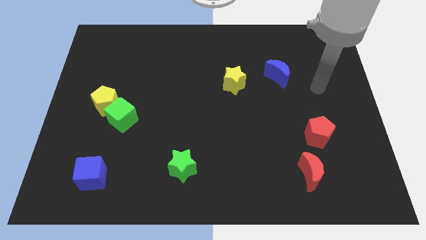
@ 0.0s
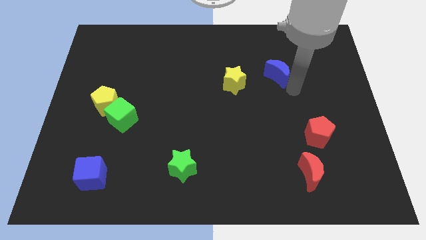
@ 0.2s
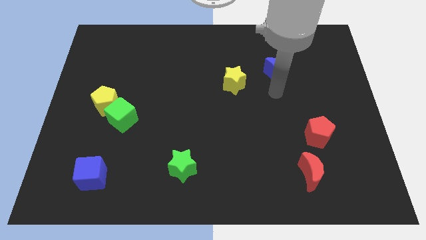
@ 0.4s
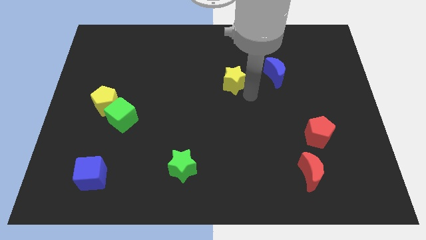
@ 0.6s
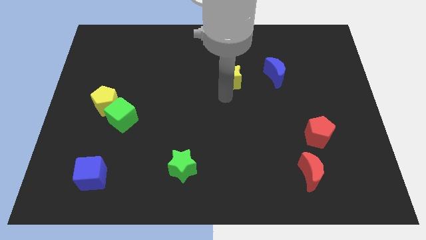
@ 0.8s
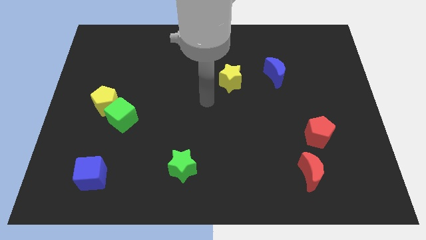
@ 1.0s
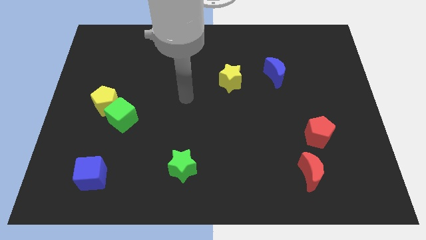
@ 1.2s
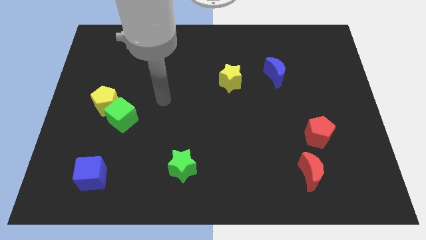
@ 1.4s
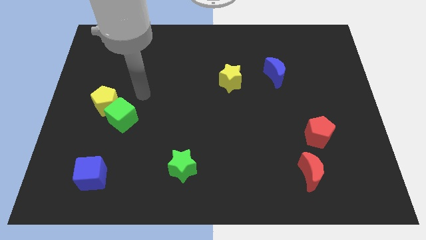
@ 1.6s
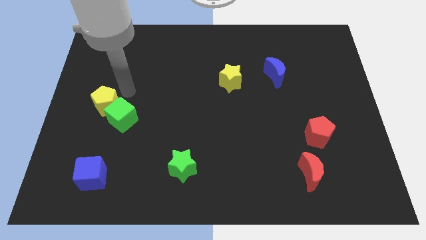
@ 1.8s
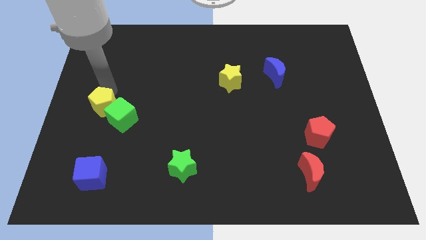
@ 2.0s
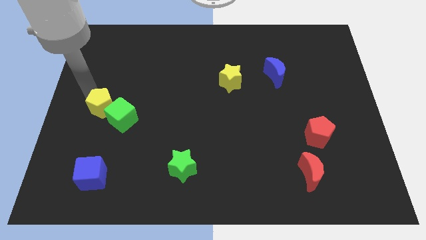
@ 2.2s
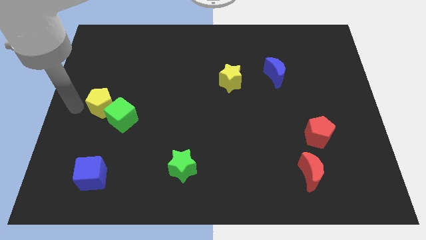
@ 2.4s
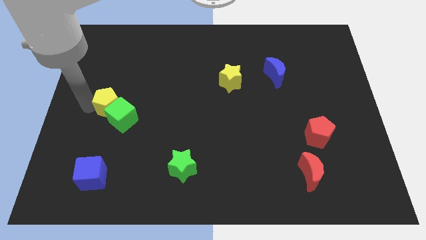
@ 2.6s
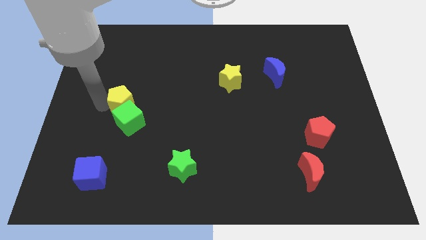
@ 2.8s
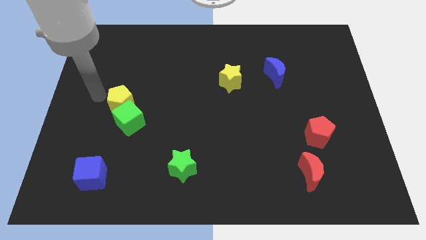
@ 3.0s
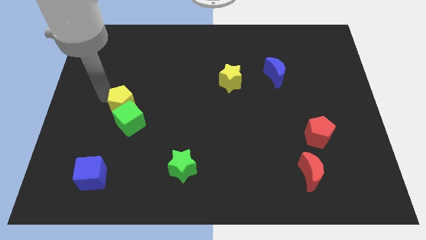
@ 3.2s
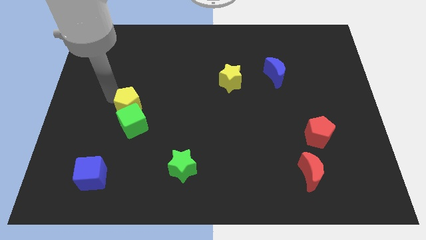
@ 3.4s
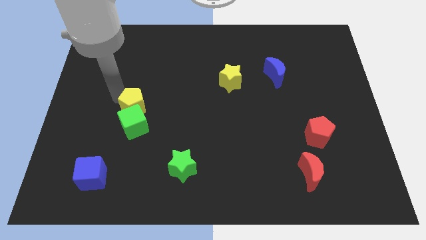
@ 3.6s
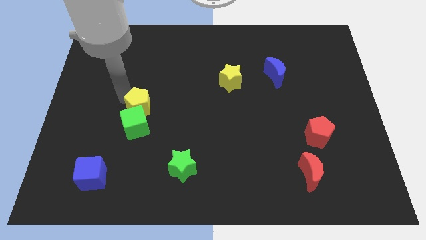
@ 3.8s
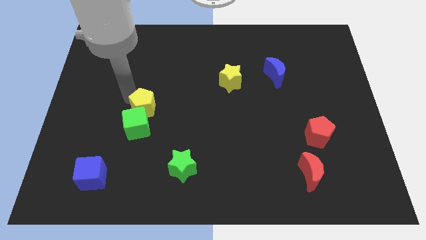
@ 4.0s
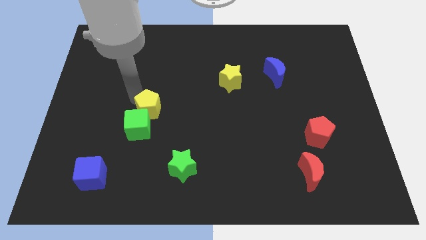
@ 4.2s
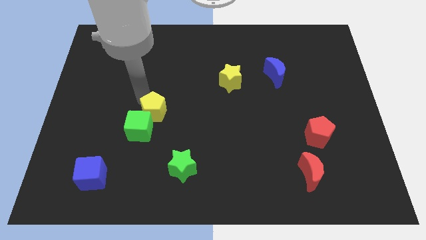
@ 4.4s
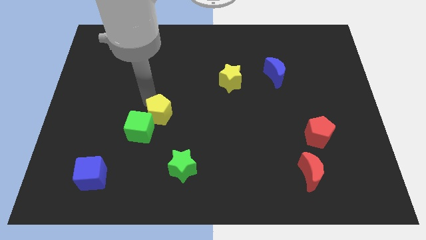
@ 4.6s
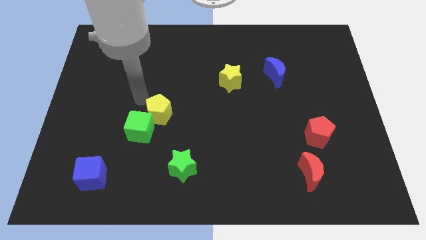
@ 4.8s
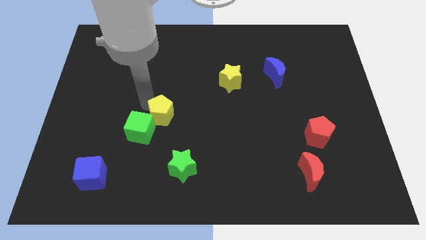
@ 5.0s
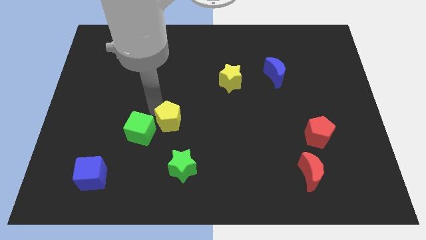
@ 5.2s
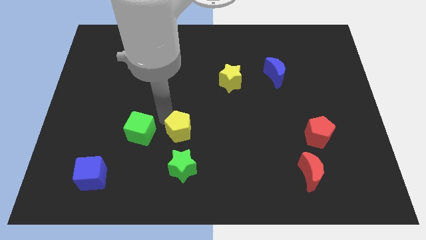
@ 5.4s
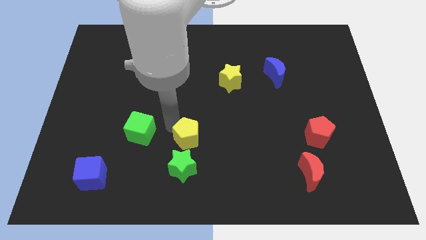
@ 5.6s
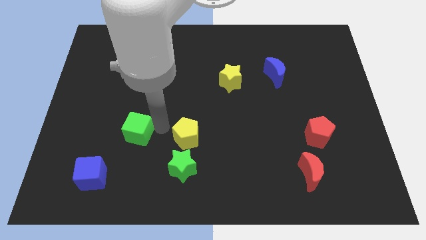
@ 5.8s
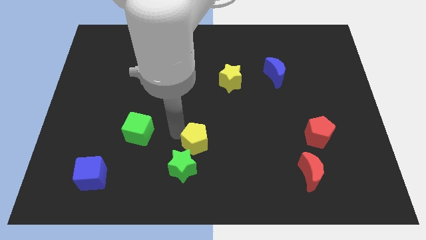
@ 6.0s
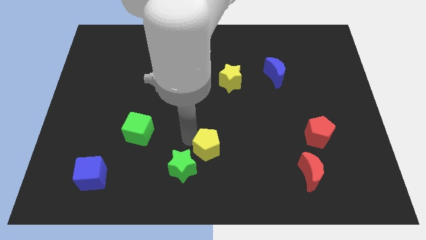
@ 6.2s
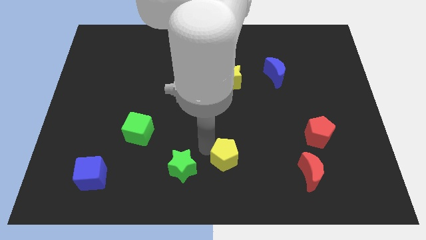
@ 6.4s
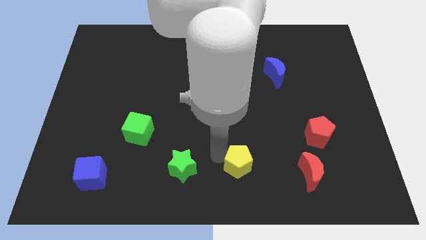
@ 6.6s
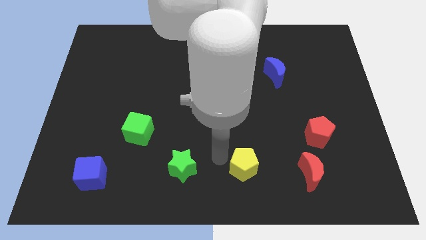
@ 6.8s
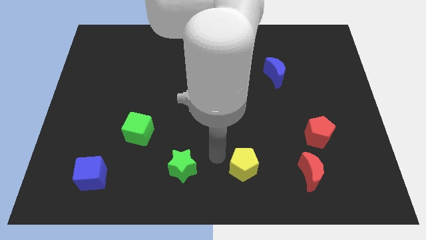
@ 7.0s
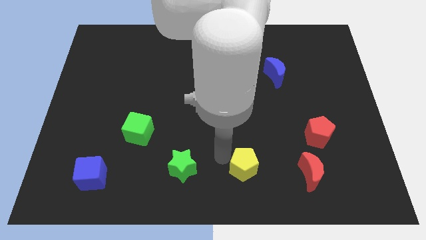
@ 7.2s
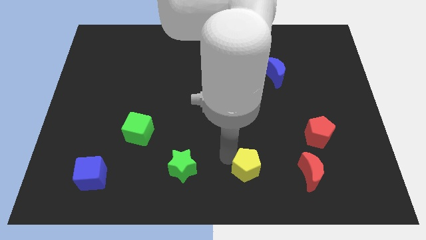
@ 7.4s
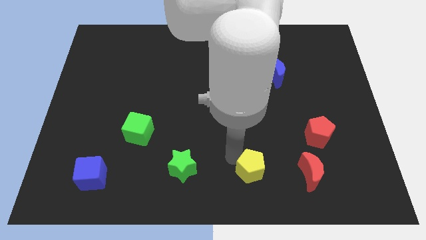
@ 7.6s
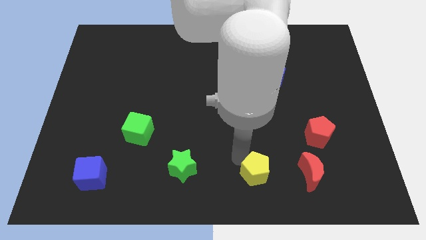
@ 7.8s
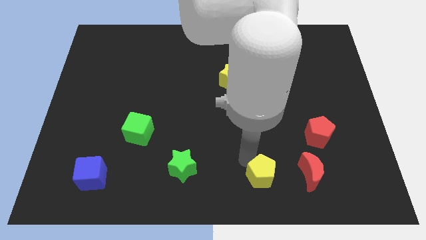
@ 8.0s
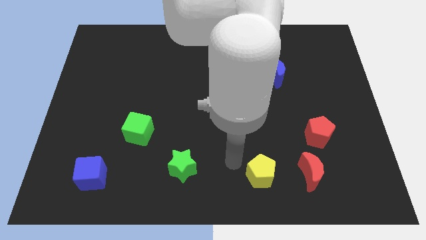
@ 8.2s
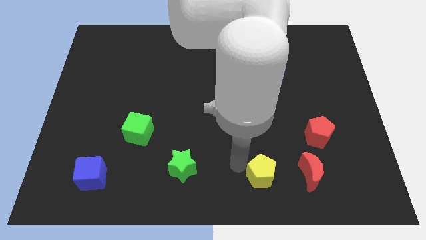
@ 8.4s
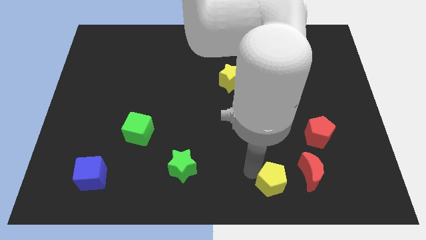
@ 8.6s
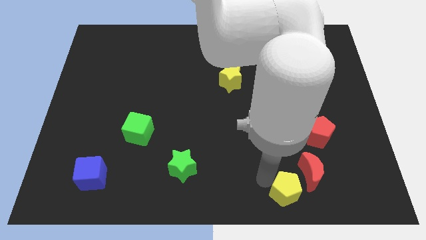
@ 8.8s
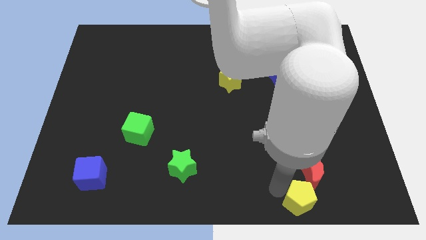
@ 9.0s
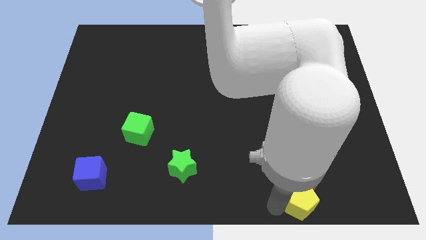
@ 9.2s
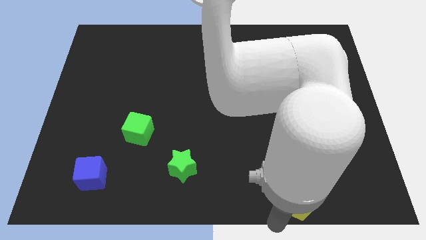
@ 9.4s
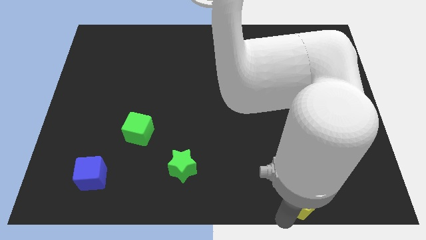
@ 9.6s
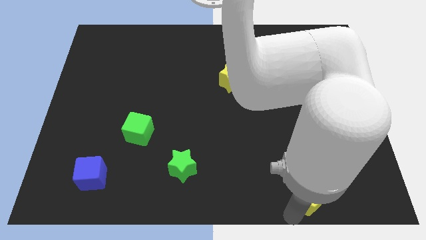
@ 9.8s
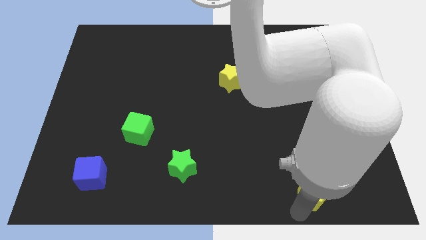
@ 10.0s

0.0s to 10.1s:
move the yellow pentagon to the bottom side of the red pentagon
